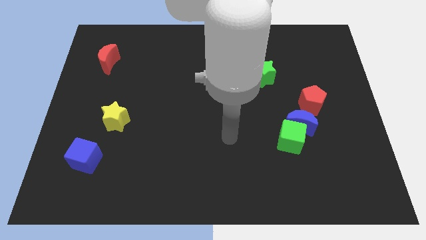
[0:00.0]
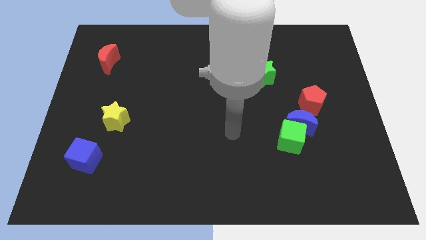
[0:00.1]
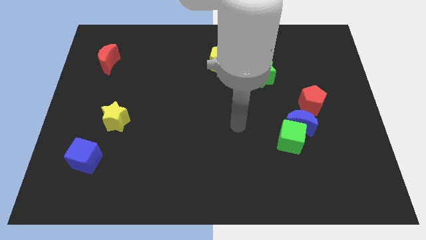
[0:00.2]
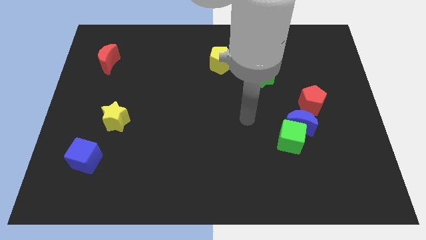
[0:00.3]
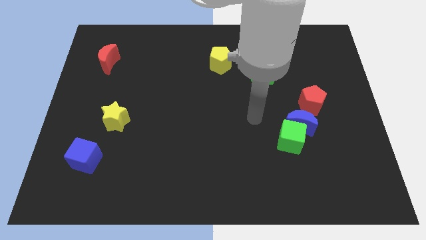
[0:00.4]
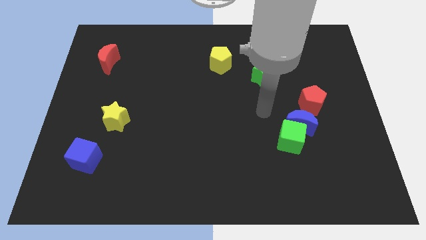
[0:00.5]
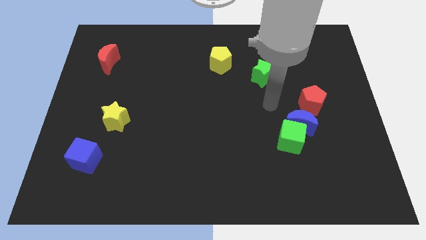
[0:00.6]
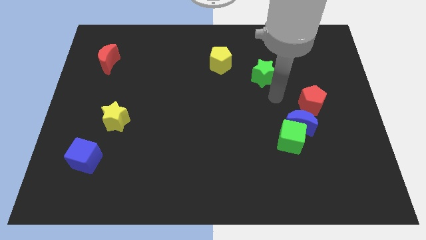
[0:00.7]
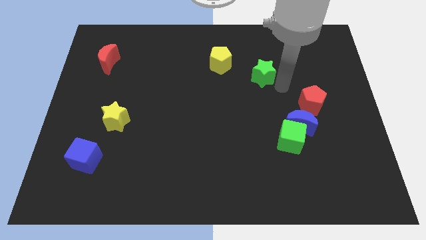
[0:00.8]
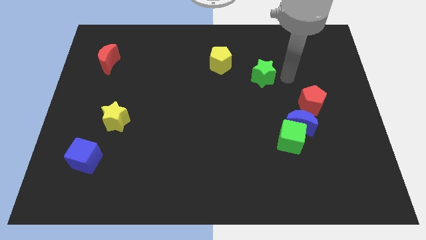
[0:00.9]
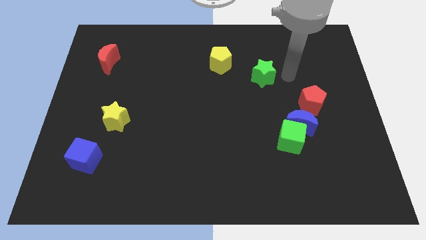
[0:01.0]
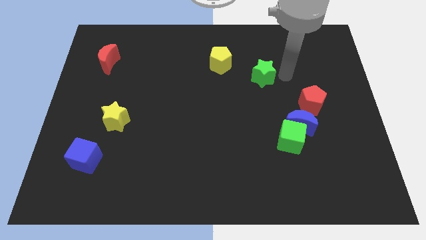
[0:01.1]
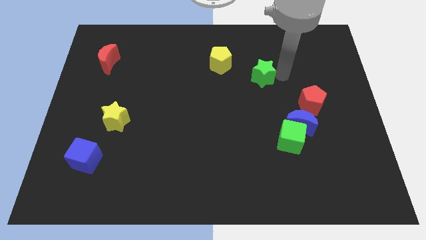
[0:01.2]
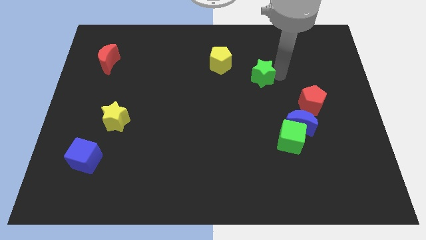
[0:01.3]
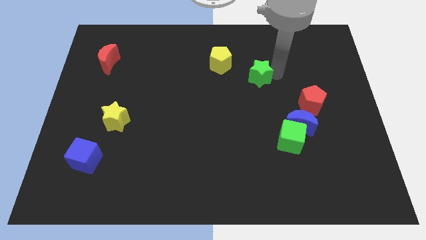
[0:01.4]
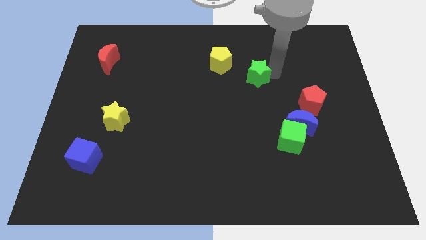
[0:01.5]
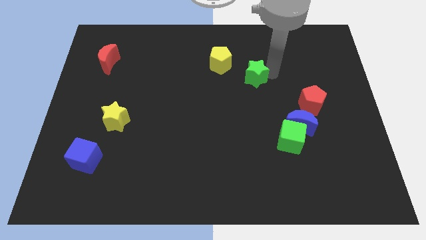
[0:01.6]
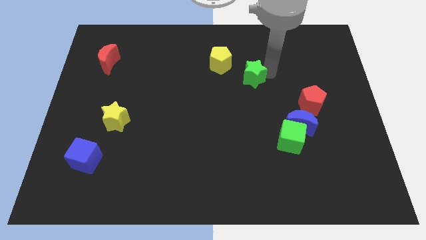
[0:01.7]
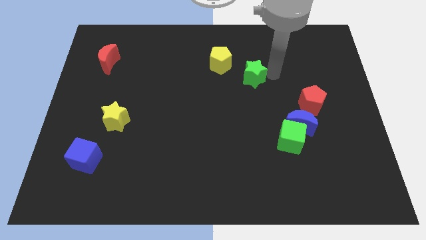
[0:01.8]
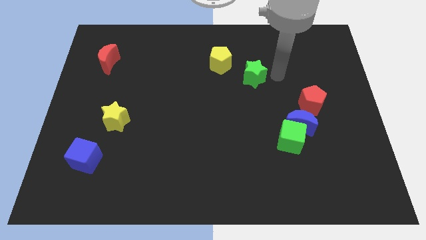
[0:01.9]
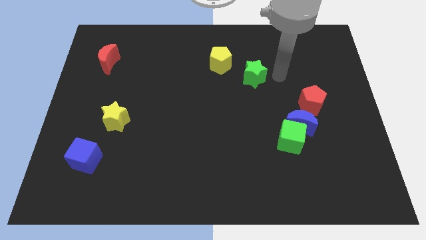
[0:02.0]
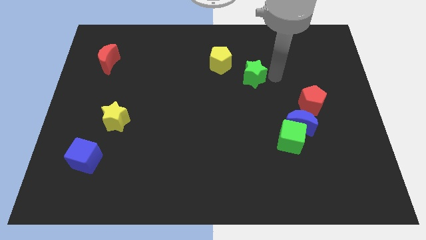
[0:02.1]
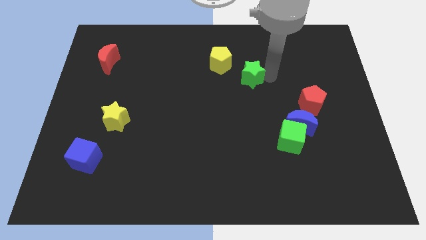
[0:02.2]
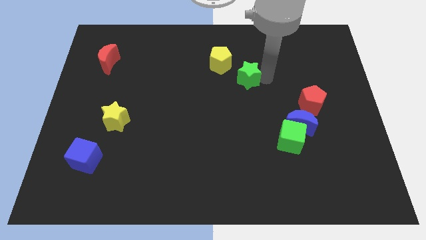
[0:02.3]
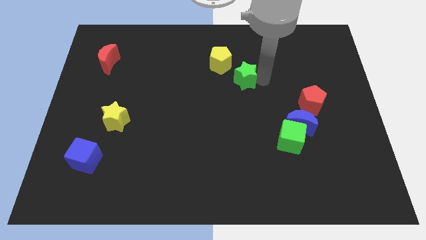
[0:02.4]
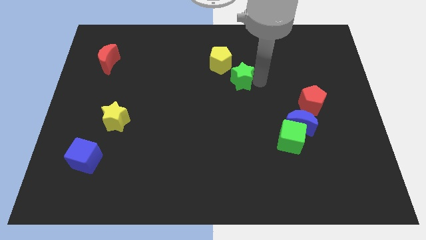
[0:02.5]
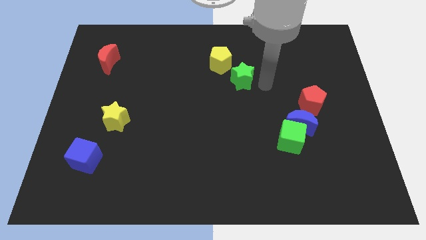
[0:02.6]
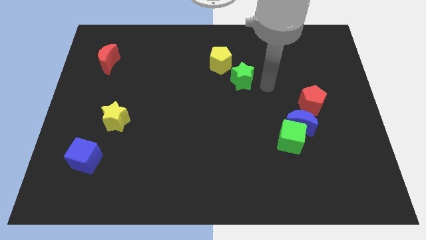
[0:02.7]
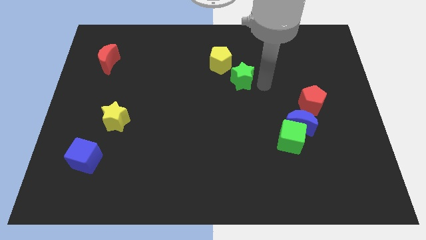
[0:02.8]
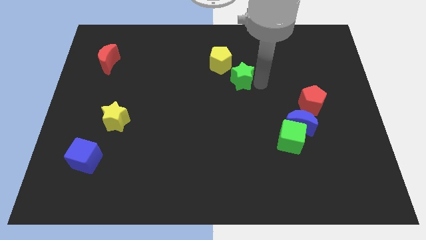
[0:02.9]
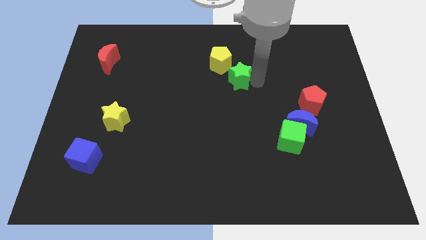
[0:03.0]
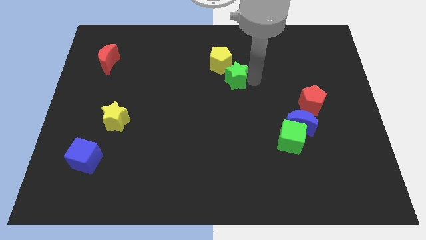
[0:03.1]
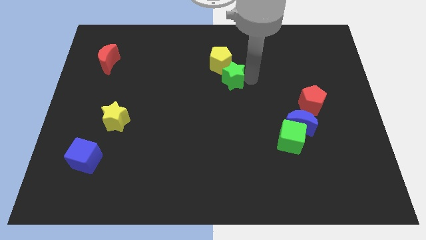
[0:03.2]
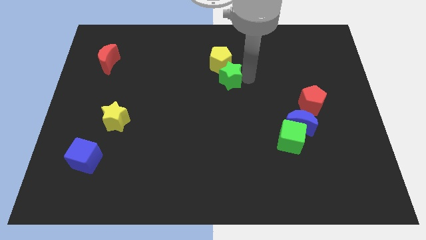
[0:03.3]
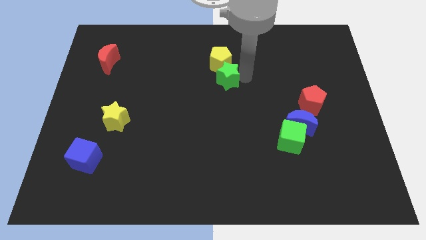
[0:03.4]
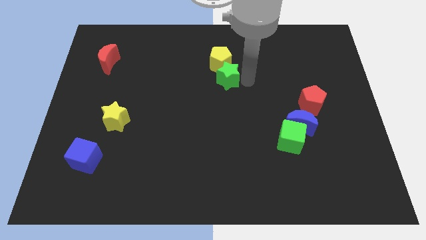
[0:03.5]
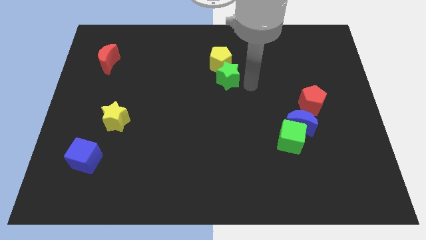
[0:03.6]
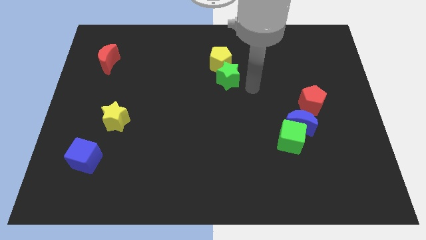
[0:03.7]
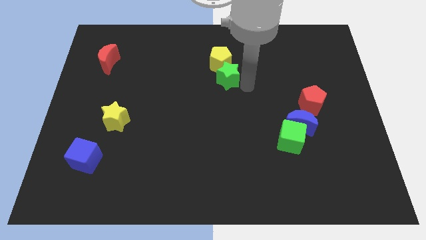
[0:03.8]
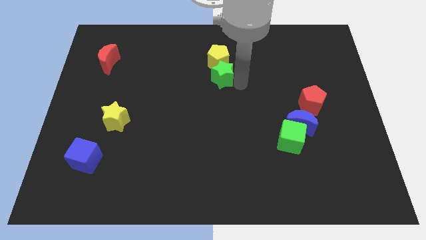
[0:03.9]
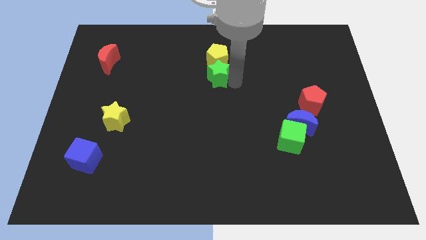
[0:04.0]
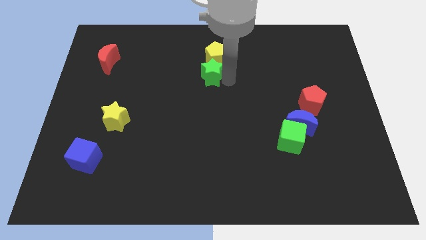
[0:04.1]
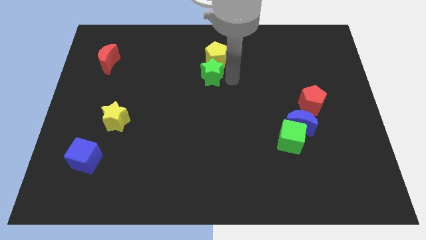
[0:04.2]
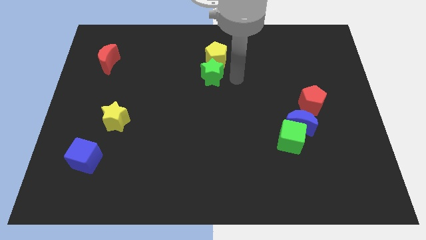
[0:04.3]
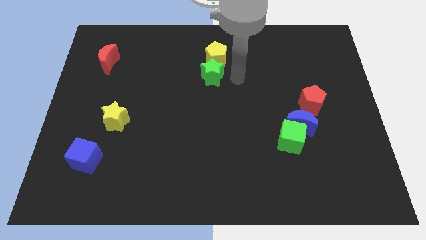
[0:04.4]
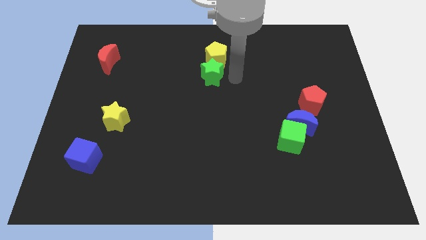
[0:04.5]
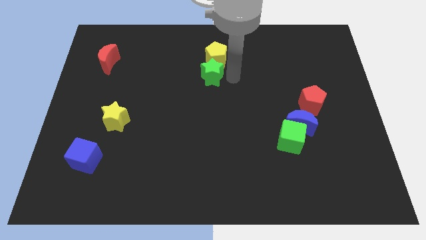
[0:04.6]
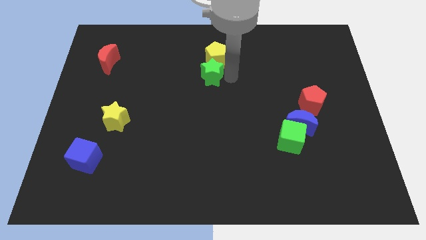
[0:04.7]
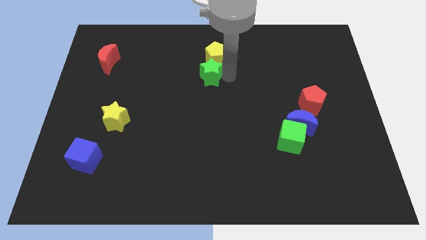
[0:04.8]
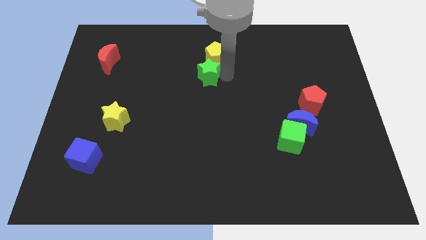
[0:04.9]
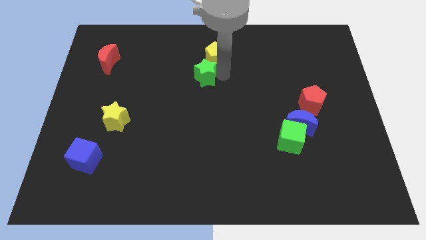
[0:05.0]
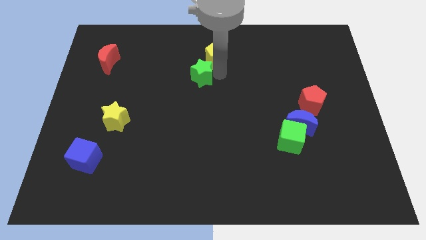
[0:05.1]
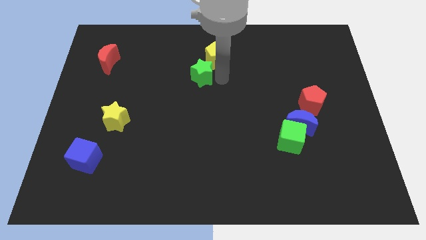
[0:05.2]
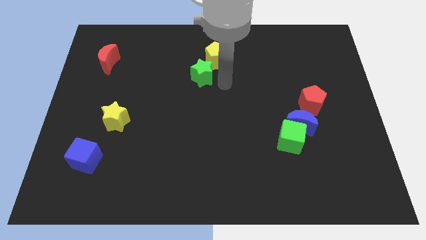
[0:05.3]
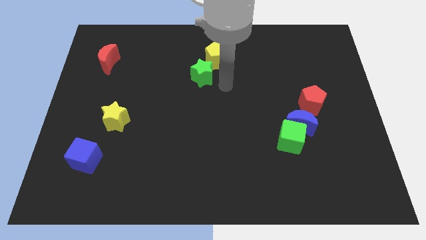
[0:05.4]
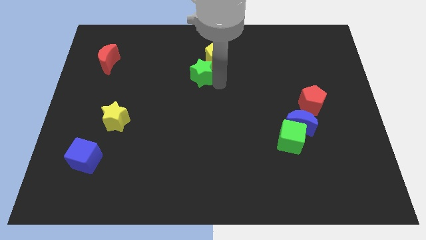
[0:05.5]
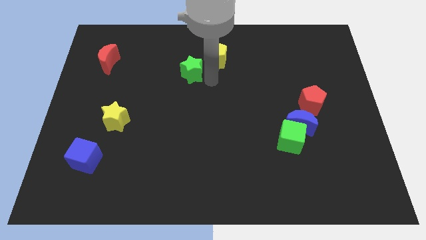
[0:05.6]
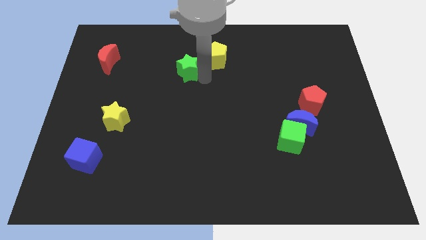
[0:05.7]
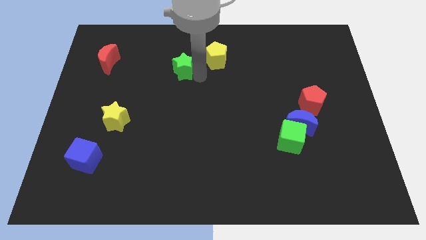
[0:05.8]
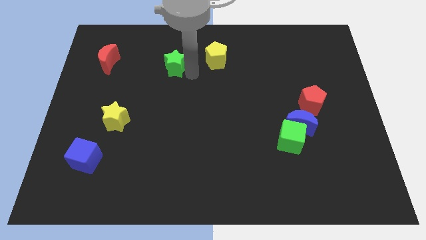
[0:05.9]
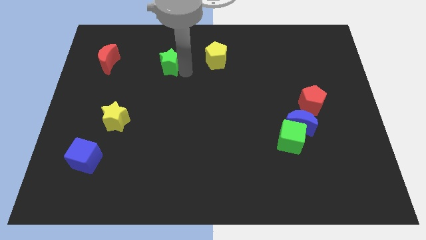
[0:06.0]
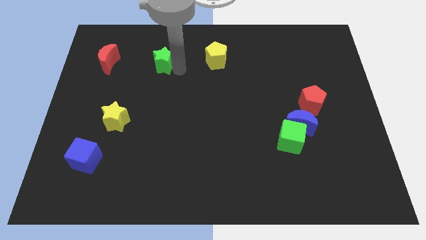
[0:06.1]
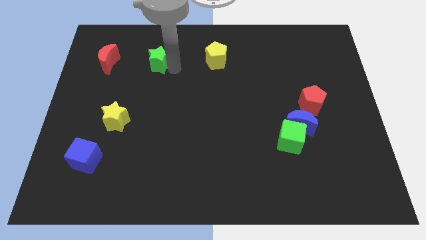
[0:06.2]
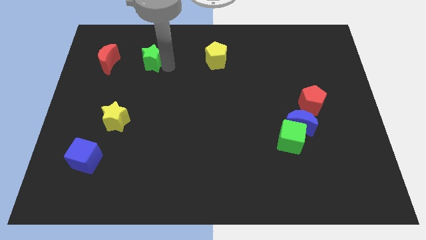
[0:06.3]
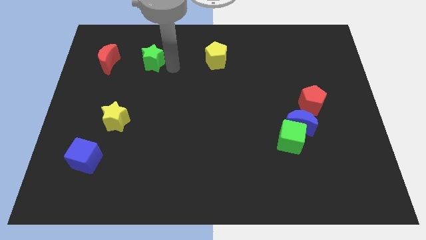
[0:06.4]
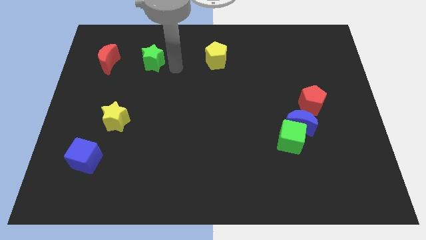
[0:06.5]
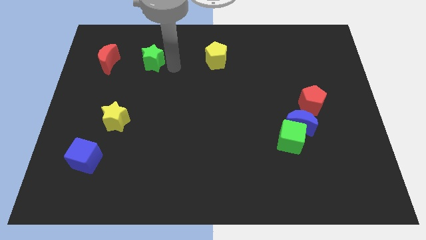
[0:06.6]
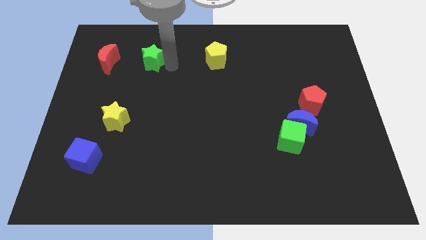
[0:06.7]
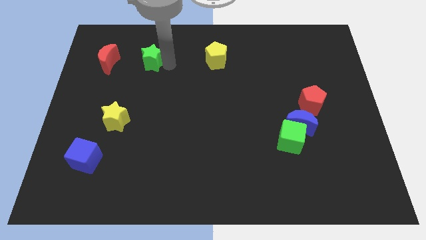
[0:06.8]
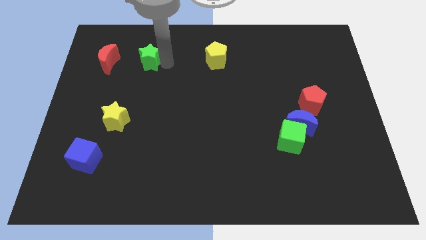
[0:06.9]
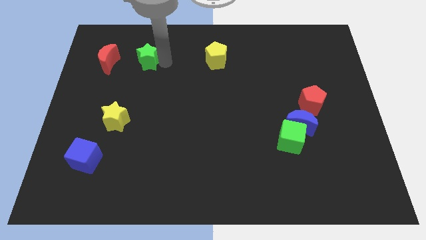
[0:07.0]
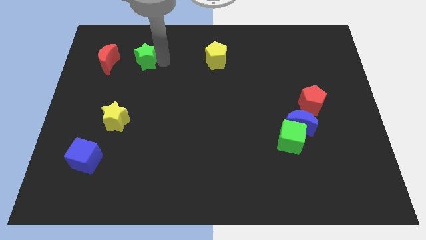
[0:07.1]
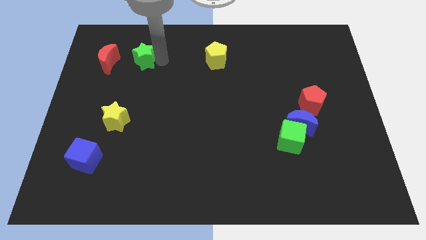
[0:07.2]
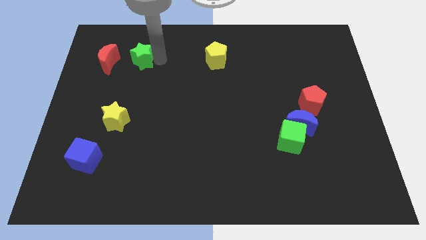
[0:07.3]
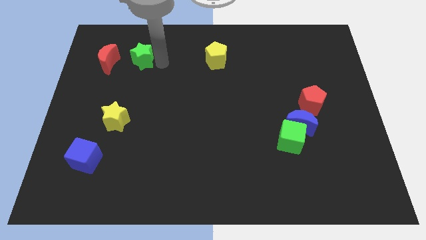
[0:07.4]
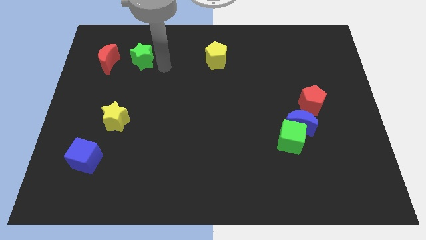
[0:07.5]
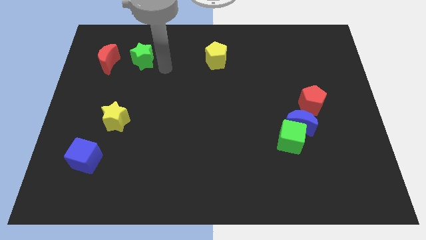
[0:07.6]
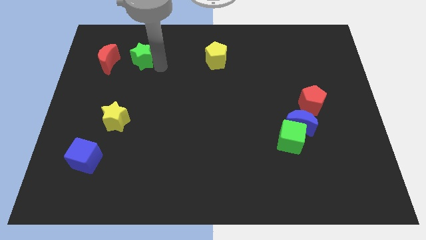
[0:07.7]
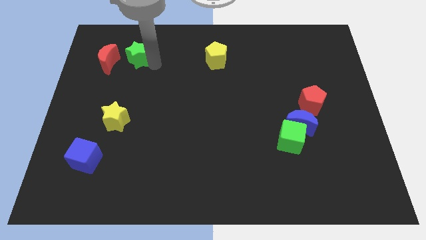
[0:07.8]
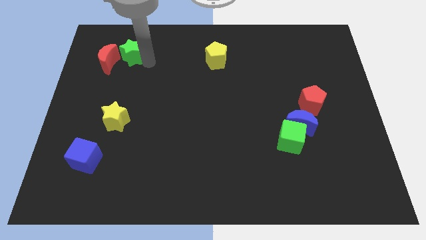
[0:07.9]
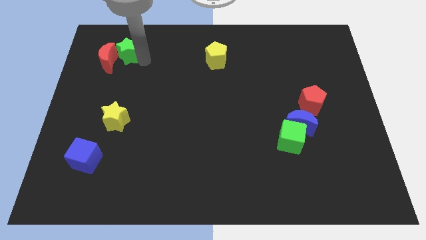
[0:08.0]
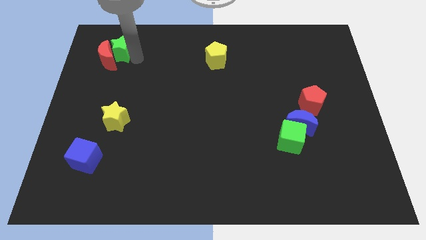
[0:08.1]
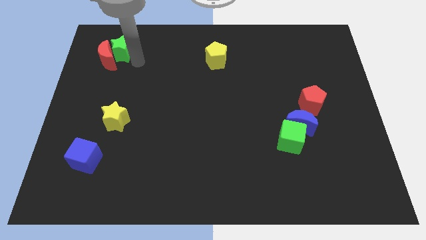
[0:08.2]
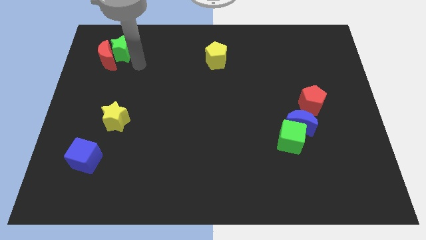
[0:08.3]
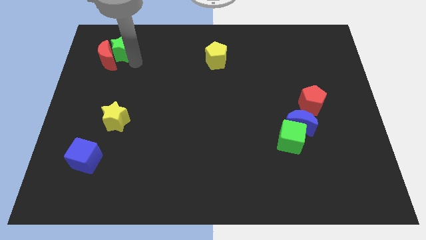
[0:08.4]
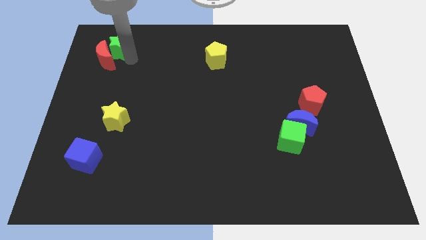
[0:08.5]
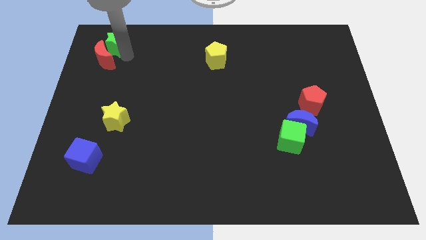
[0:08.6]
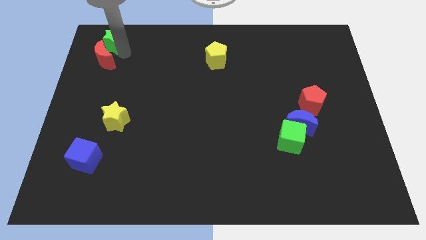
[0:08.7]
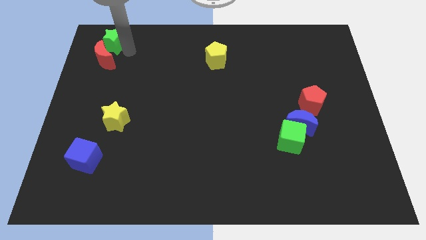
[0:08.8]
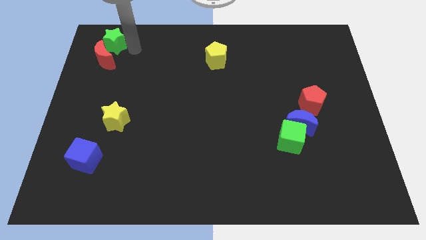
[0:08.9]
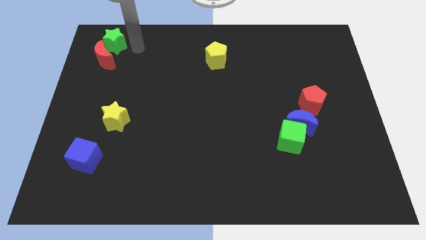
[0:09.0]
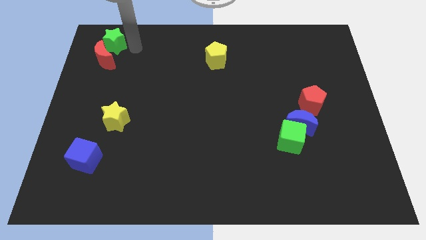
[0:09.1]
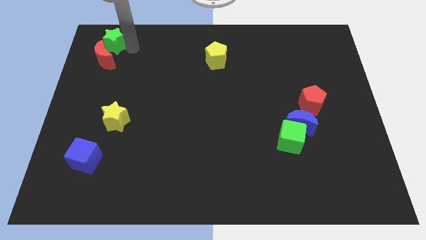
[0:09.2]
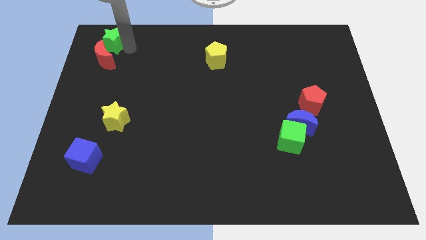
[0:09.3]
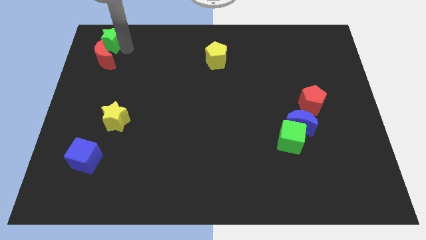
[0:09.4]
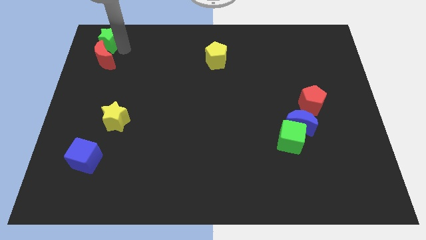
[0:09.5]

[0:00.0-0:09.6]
slide the green star to the top left of the board
